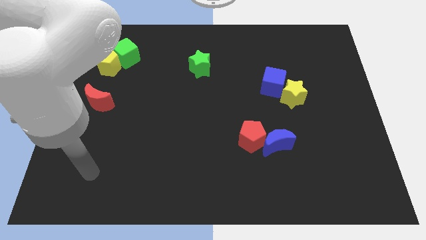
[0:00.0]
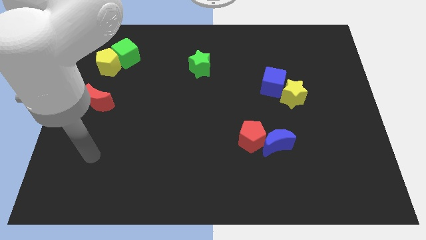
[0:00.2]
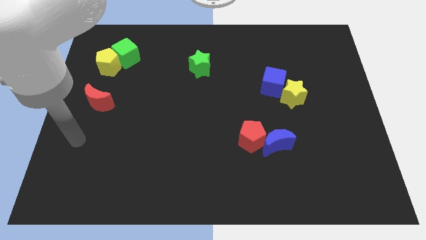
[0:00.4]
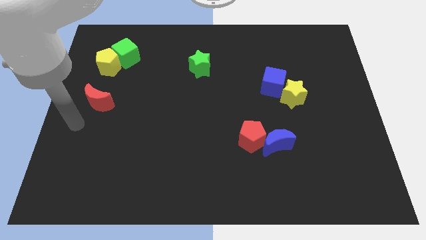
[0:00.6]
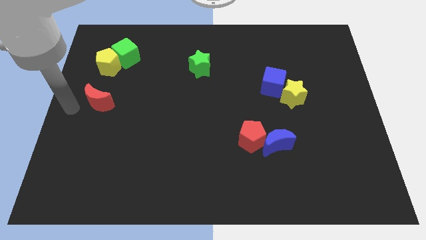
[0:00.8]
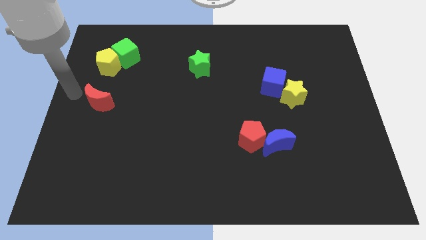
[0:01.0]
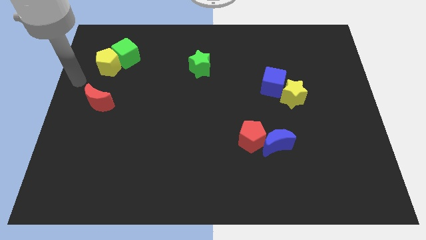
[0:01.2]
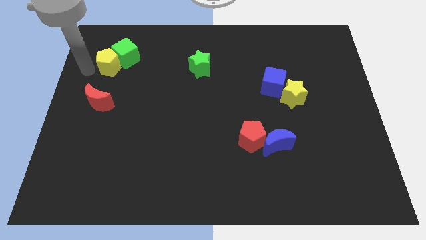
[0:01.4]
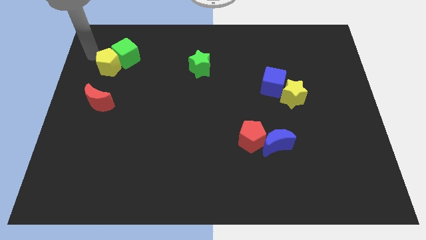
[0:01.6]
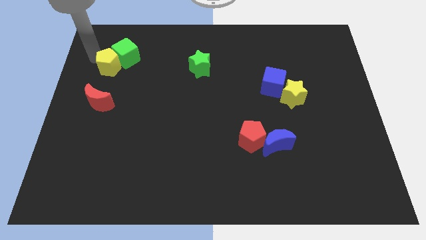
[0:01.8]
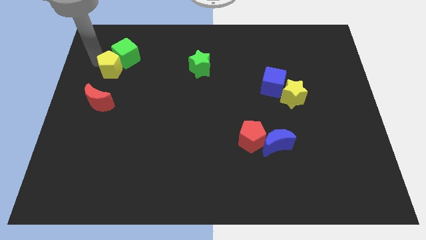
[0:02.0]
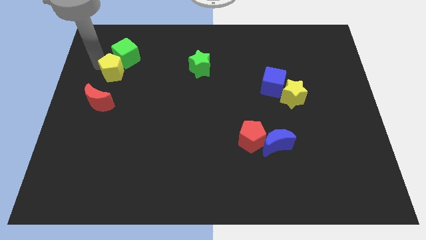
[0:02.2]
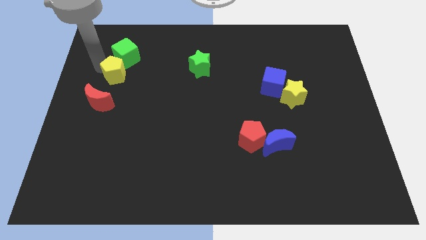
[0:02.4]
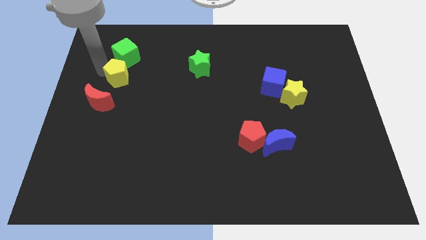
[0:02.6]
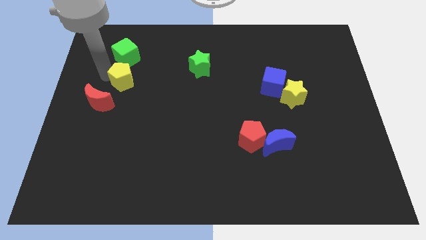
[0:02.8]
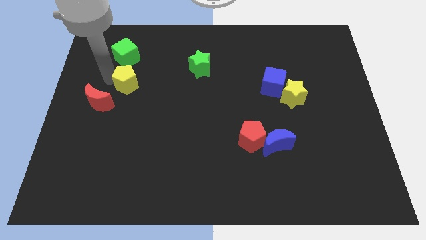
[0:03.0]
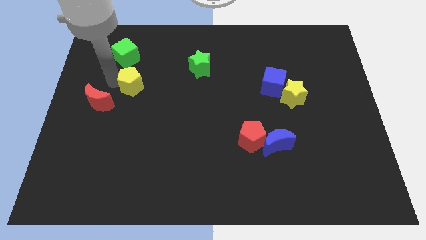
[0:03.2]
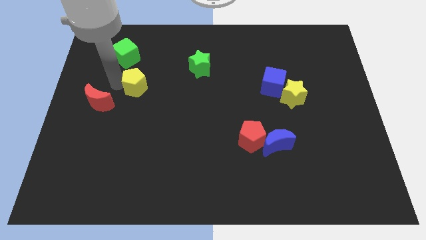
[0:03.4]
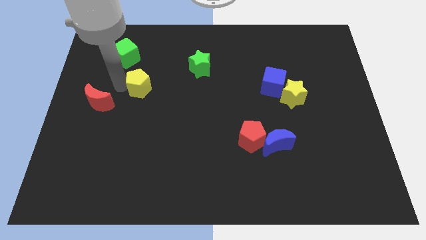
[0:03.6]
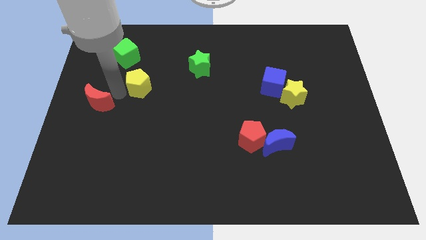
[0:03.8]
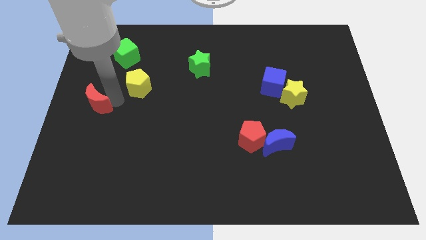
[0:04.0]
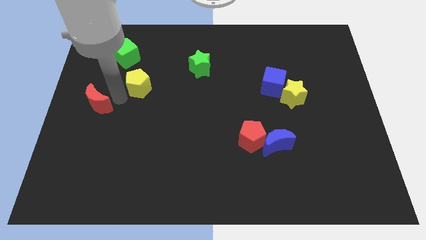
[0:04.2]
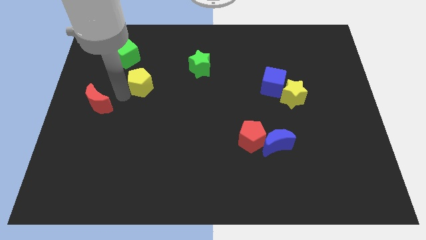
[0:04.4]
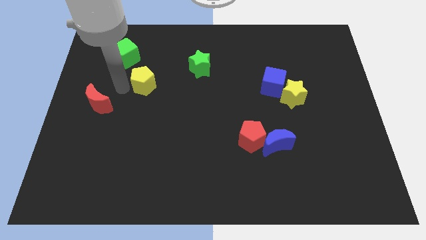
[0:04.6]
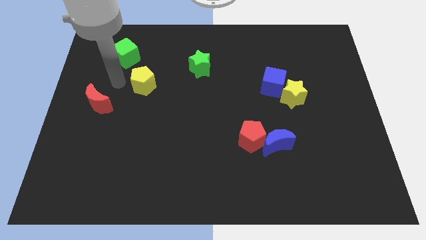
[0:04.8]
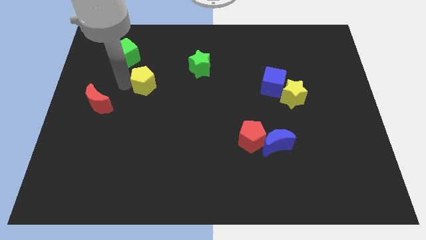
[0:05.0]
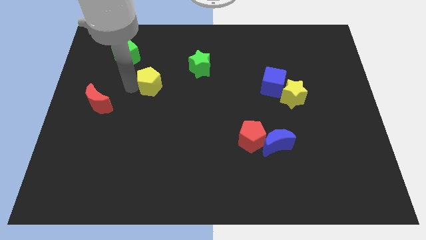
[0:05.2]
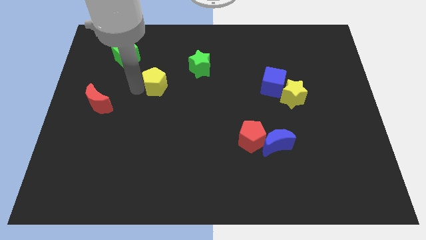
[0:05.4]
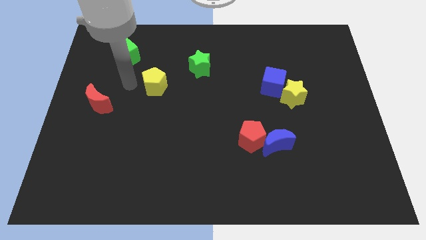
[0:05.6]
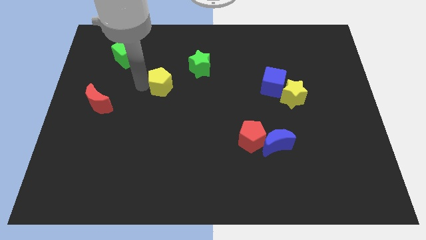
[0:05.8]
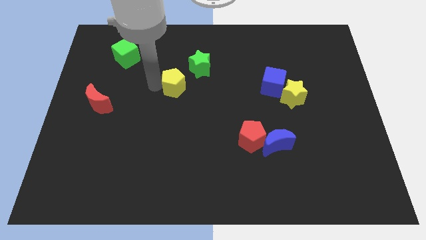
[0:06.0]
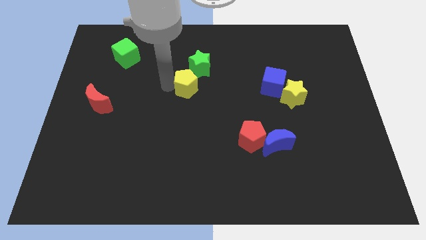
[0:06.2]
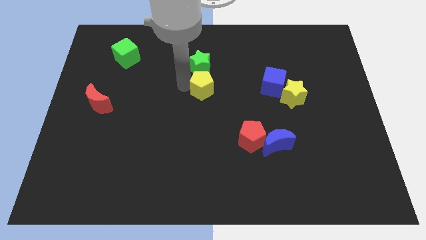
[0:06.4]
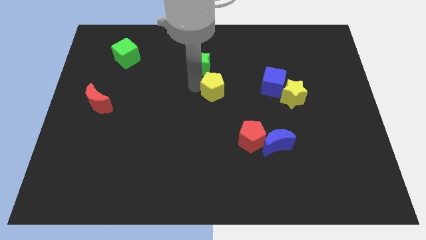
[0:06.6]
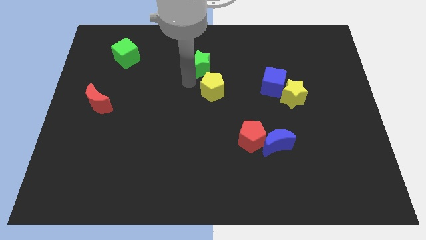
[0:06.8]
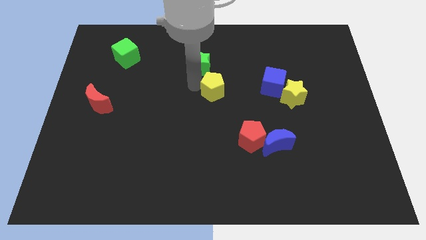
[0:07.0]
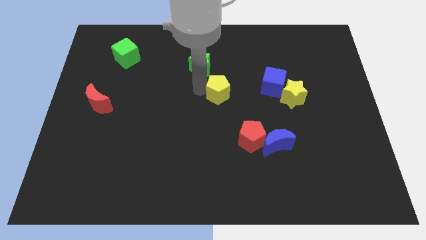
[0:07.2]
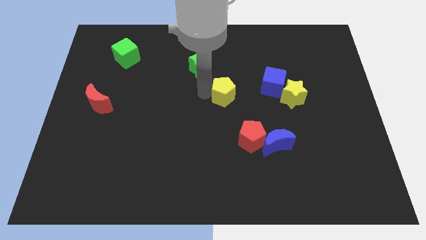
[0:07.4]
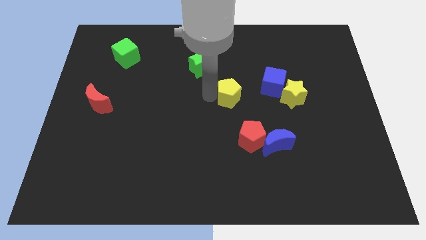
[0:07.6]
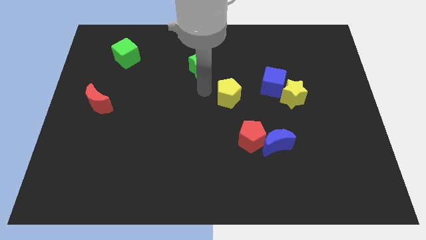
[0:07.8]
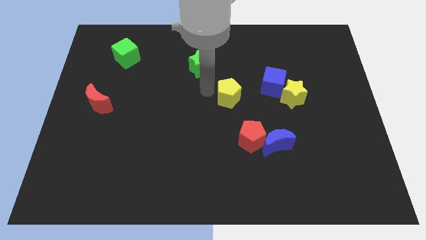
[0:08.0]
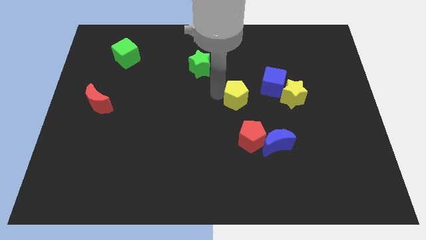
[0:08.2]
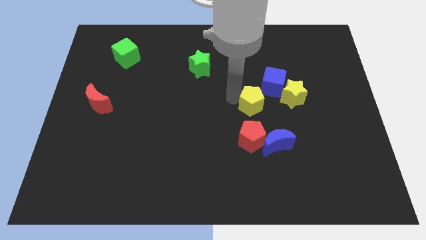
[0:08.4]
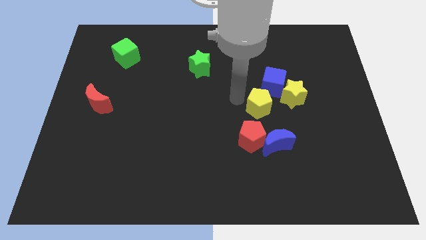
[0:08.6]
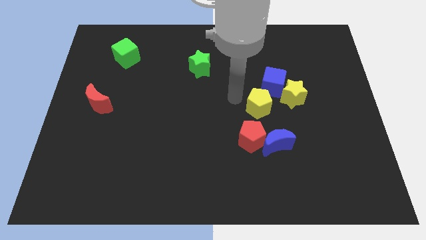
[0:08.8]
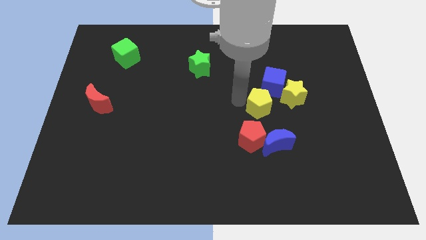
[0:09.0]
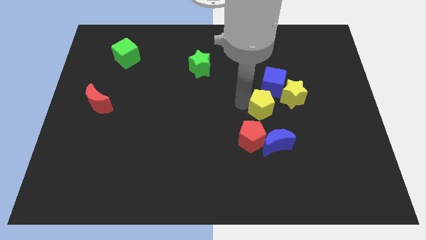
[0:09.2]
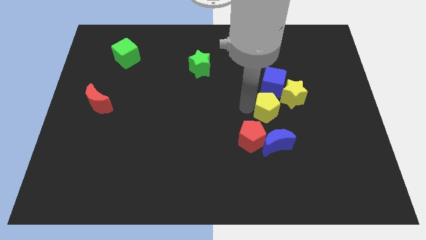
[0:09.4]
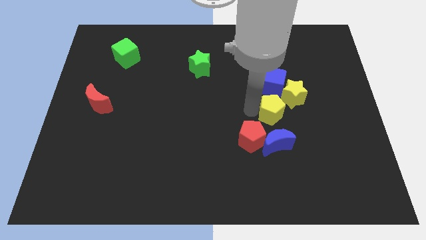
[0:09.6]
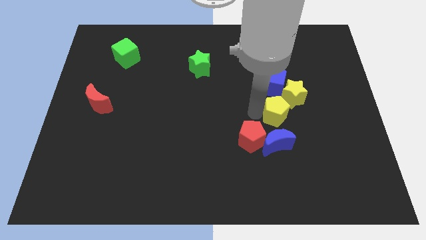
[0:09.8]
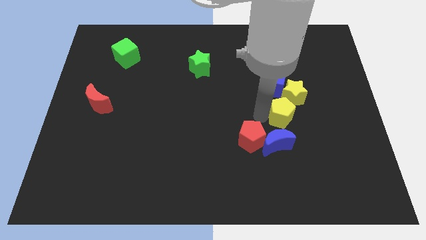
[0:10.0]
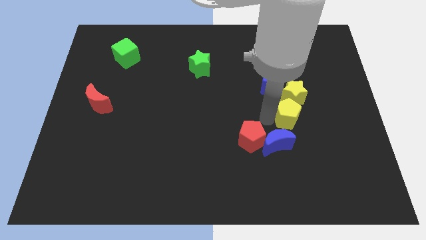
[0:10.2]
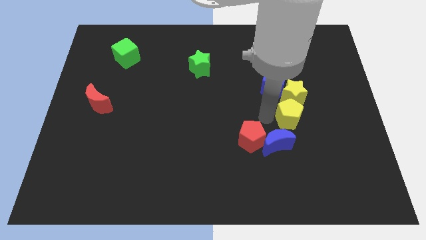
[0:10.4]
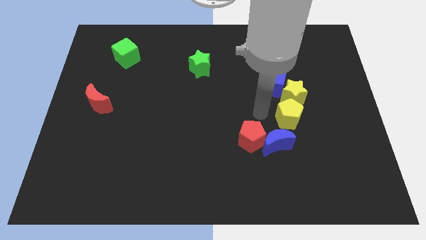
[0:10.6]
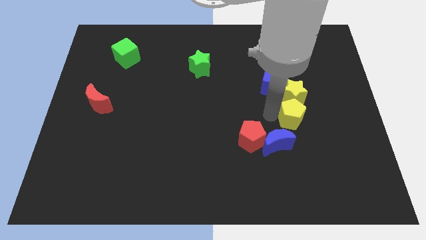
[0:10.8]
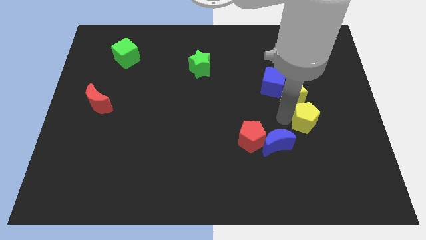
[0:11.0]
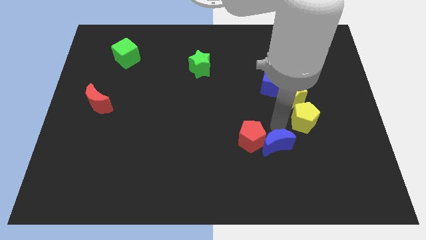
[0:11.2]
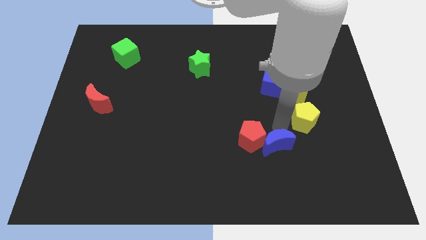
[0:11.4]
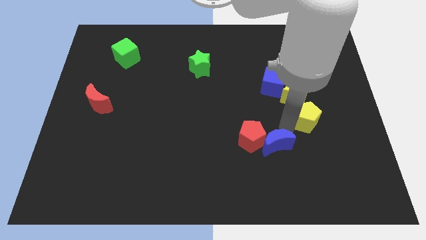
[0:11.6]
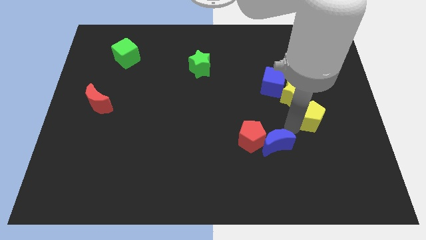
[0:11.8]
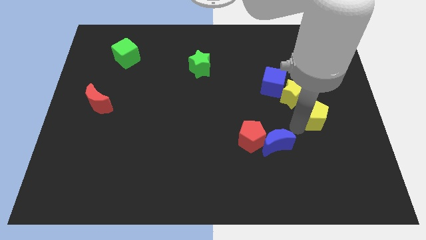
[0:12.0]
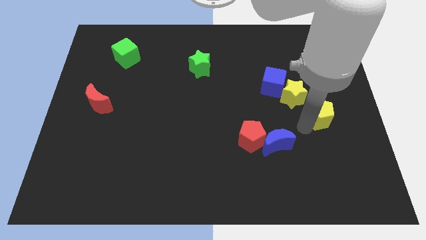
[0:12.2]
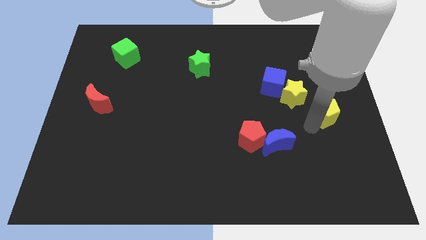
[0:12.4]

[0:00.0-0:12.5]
move the yellow pentagon to the right side of the board
